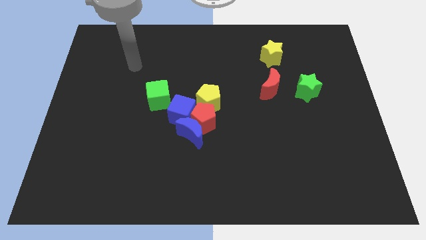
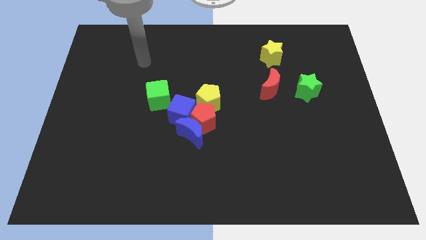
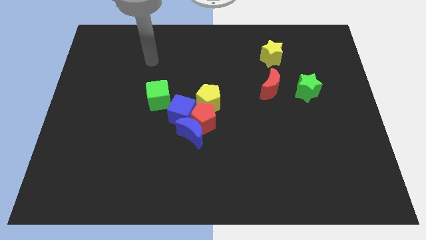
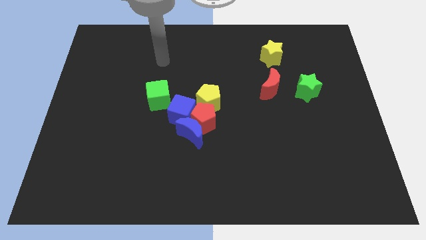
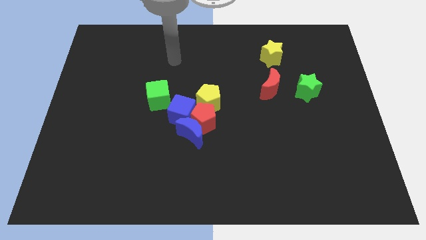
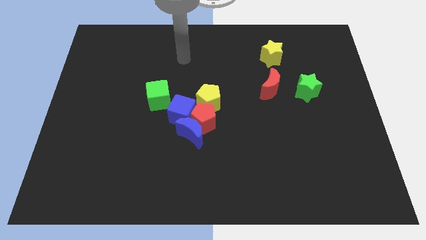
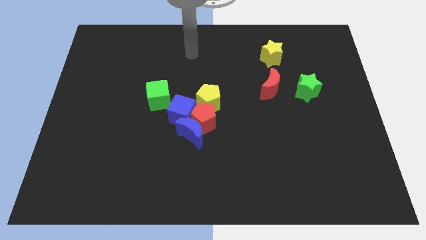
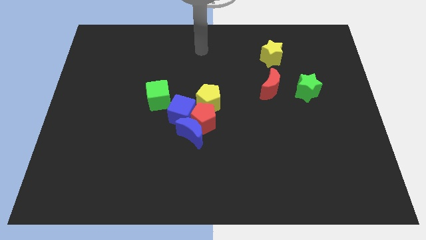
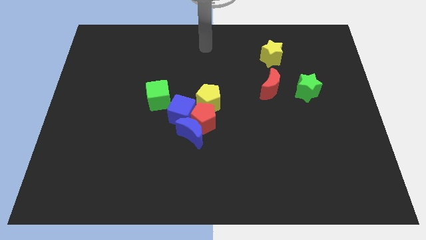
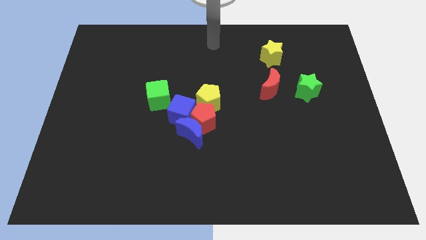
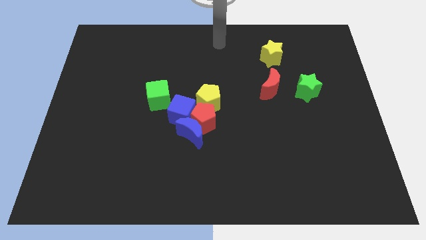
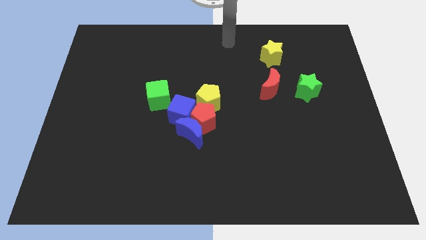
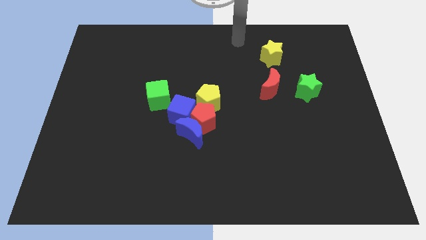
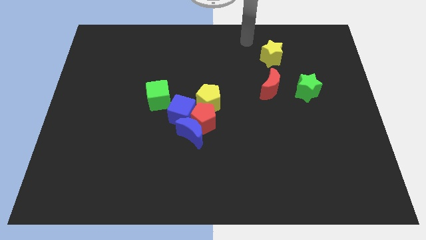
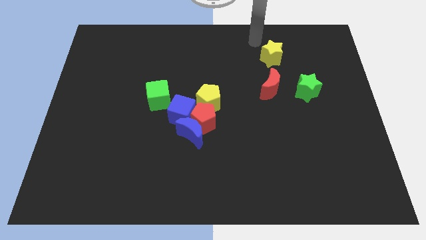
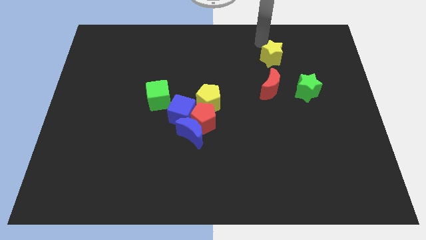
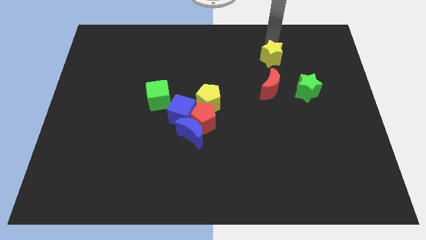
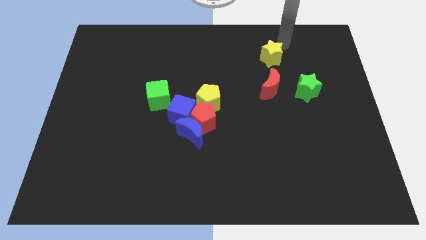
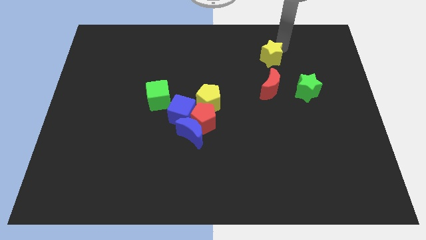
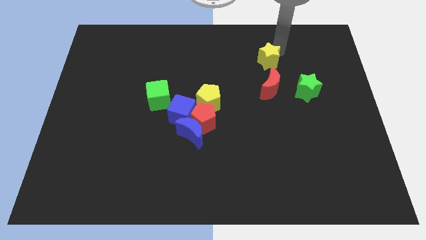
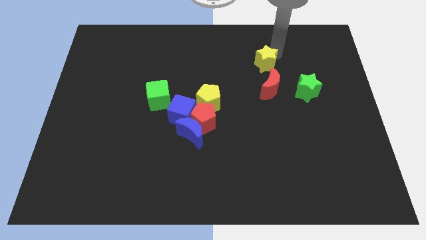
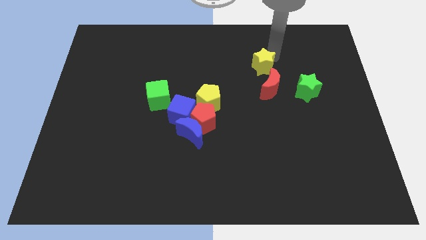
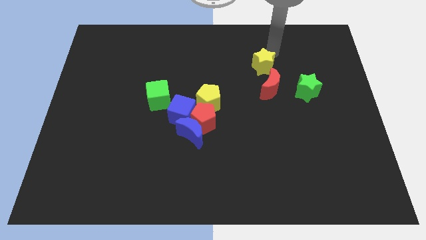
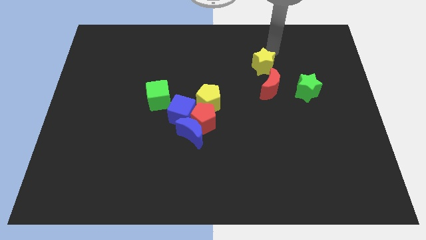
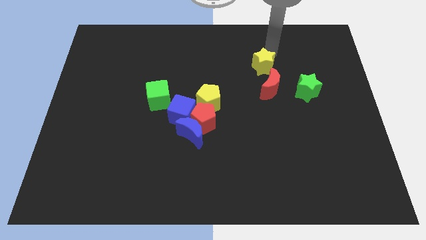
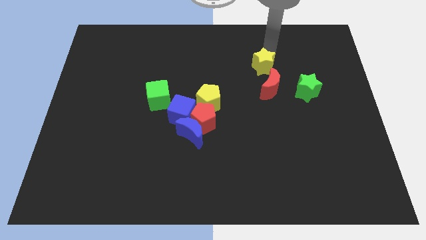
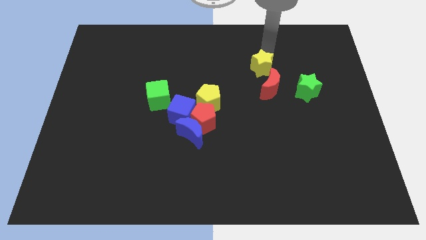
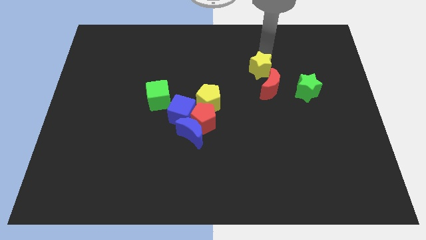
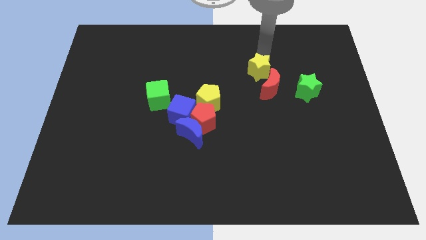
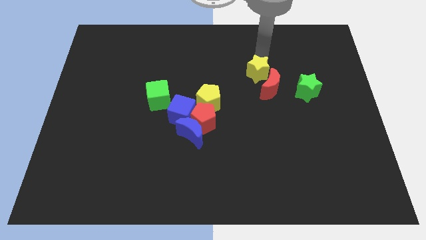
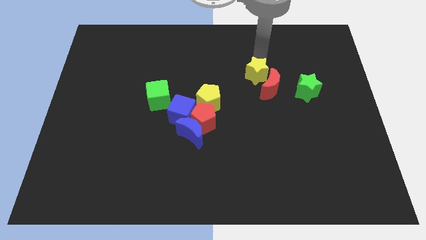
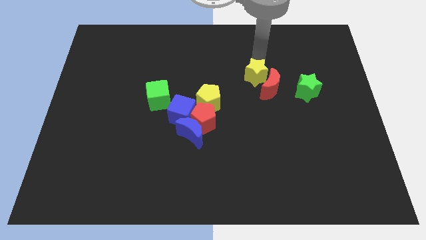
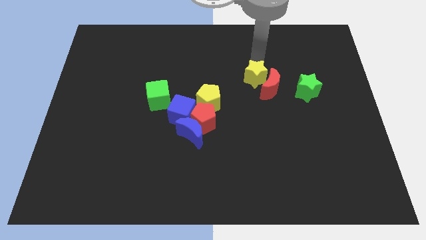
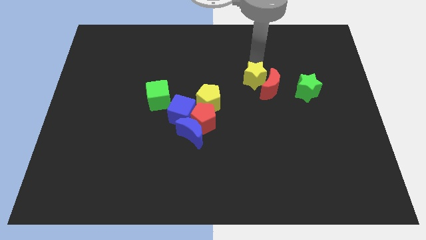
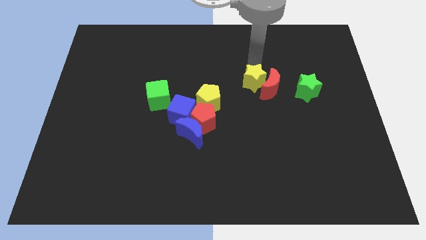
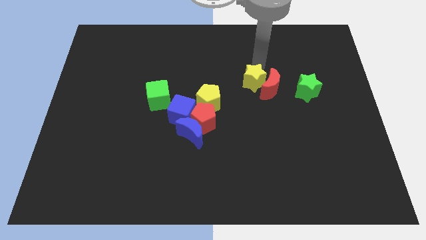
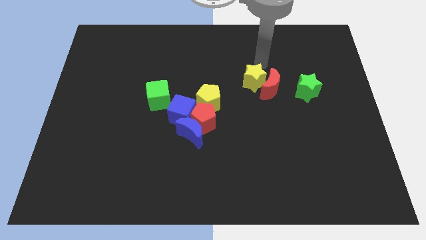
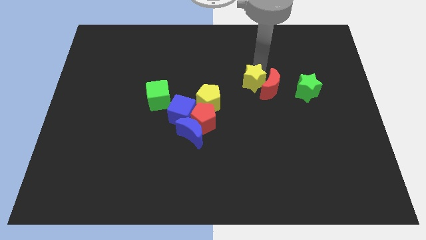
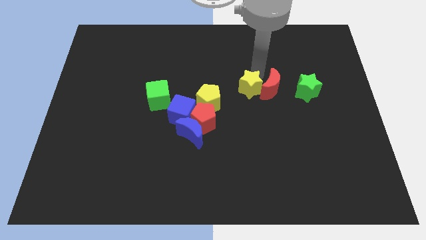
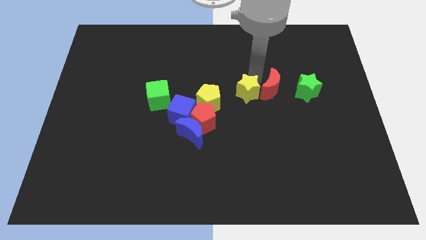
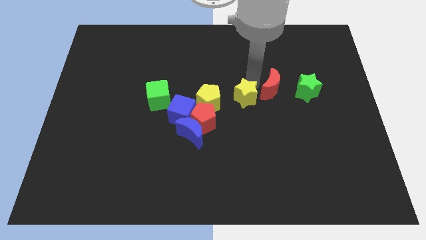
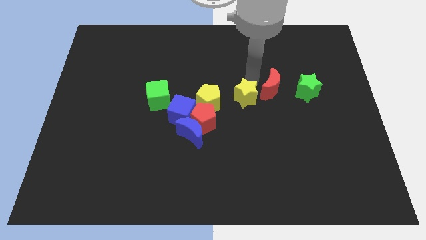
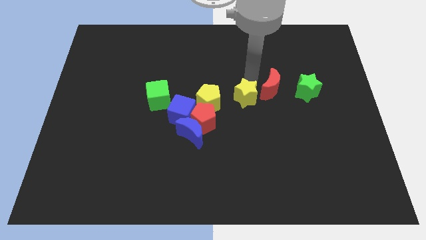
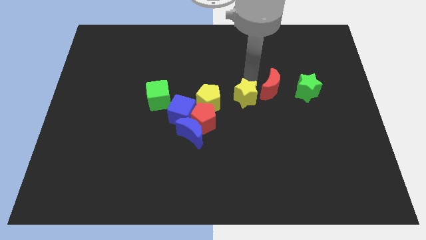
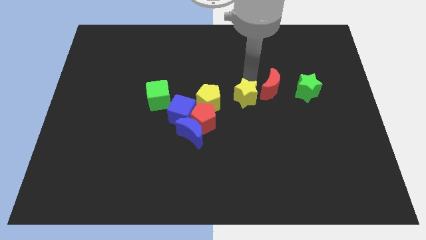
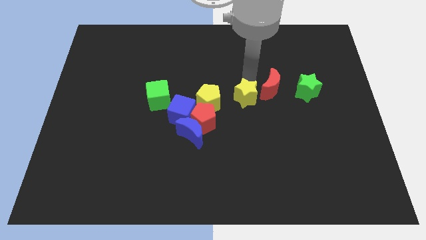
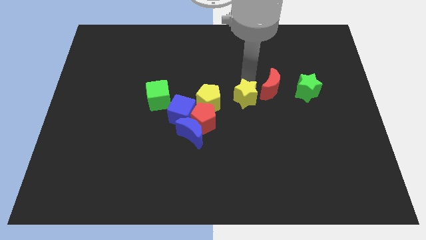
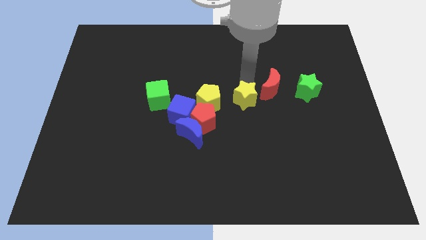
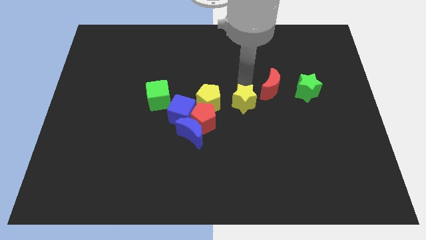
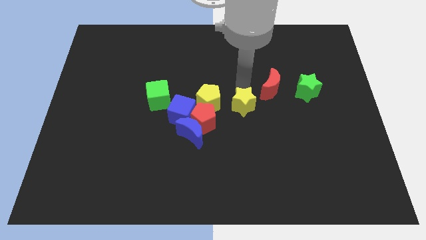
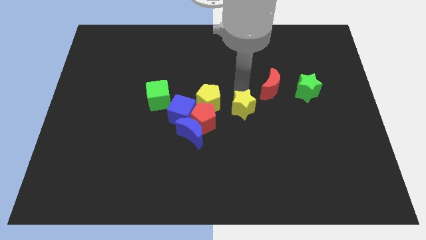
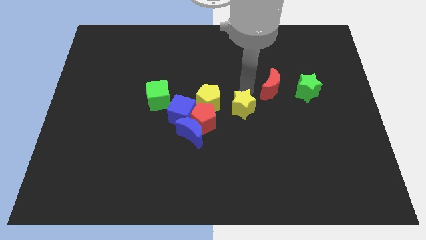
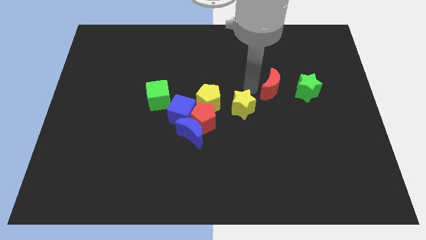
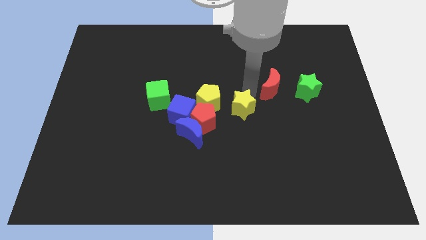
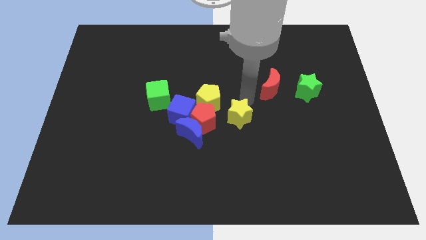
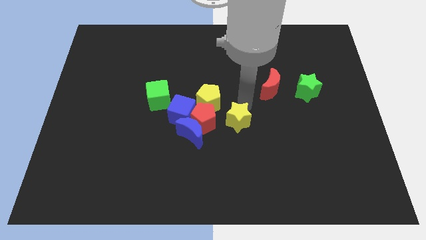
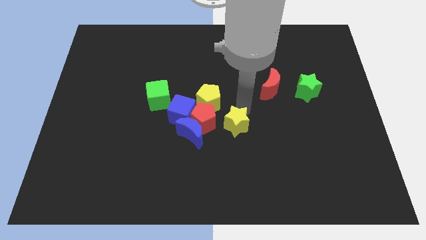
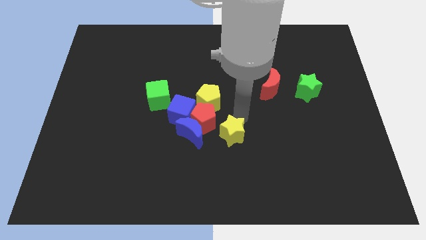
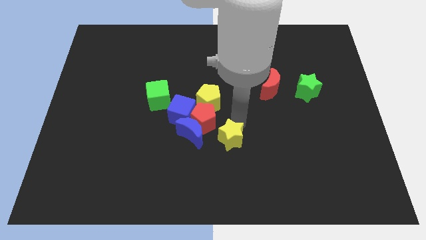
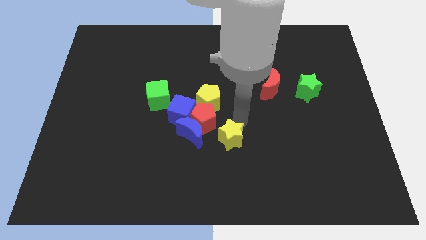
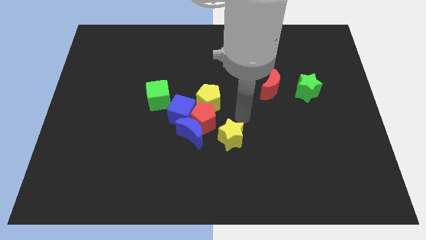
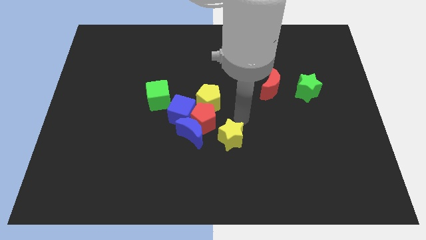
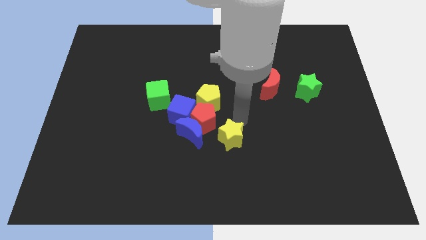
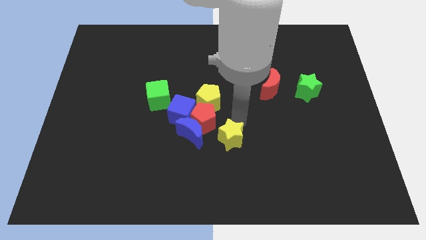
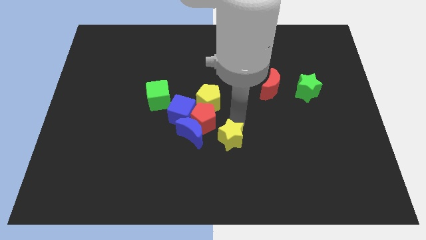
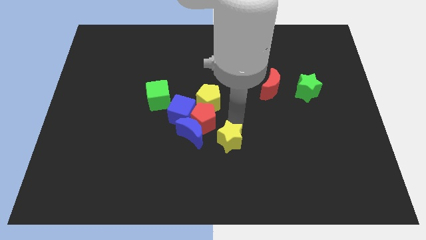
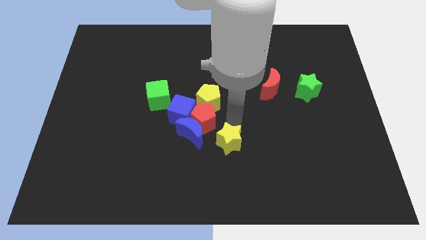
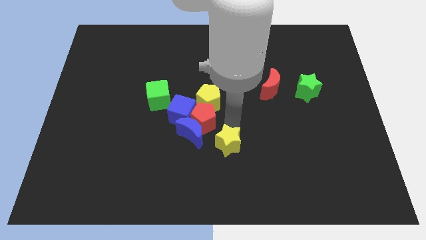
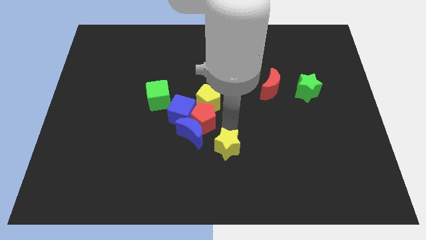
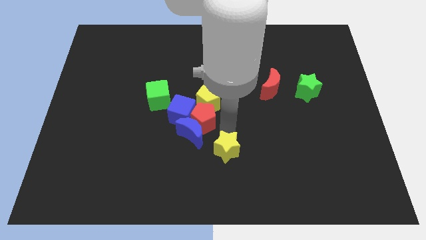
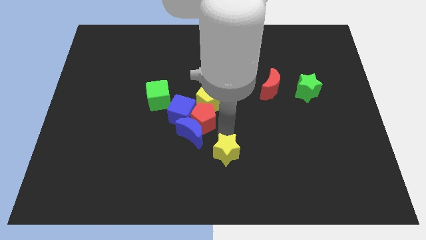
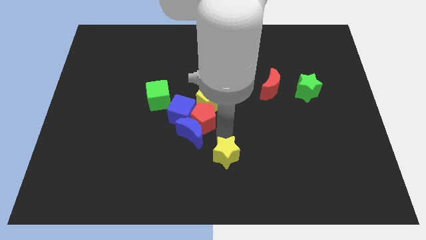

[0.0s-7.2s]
slide the yellow star to the bottom

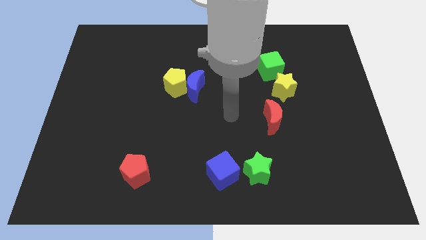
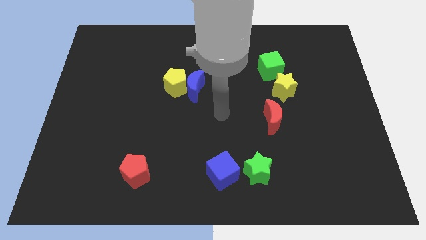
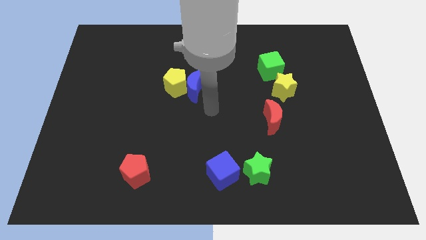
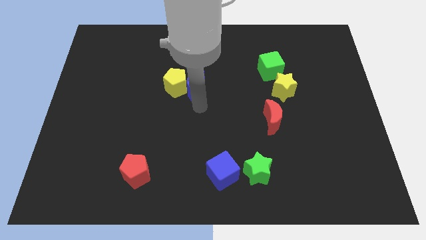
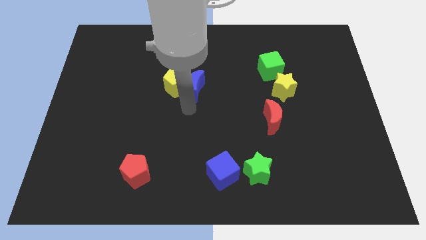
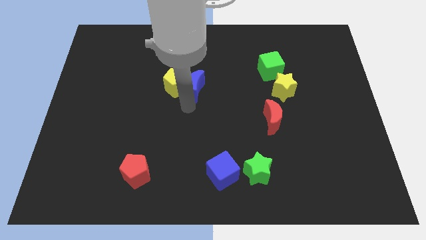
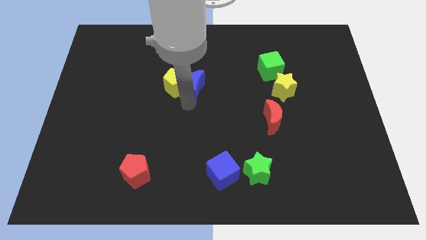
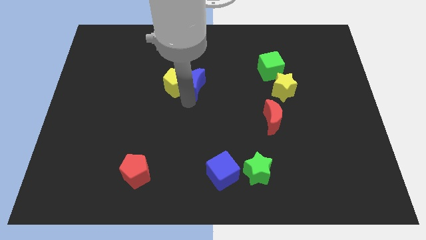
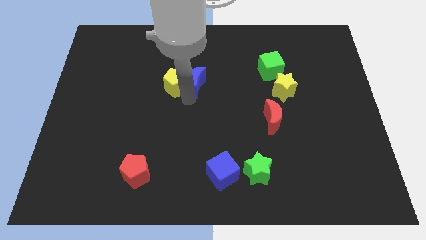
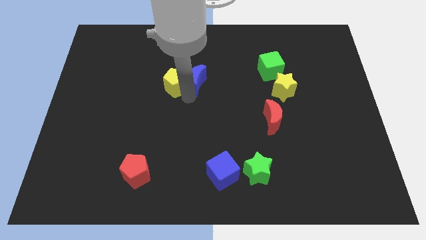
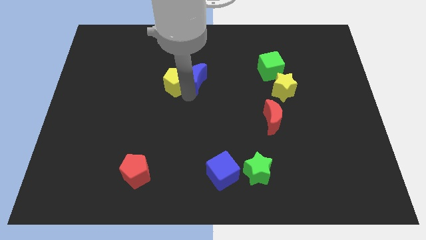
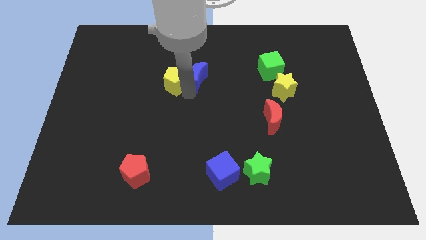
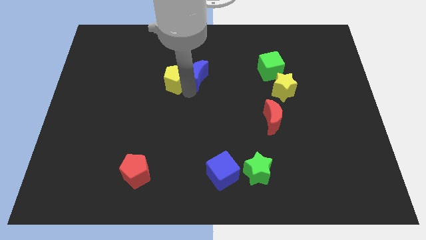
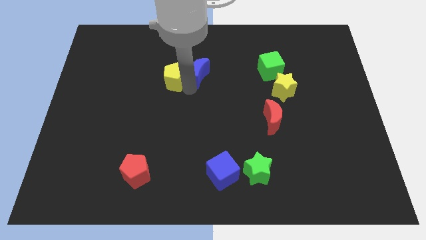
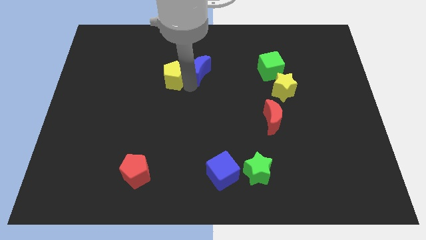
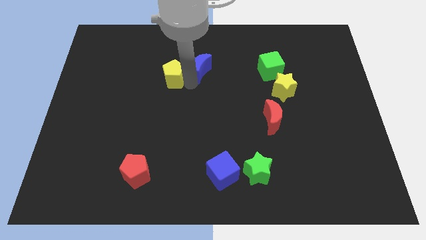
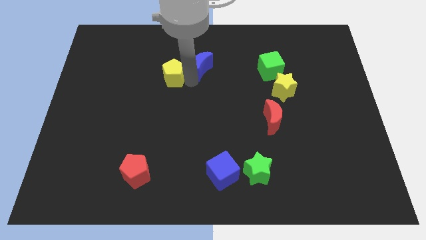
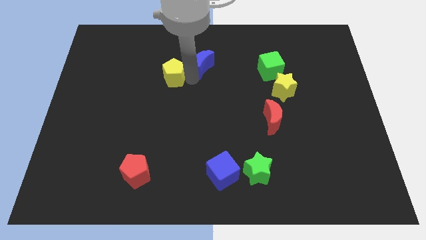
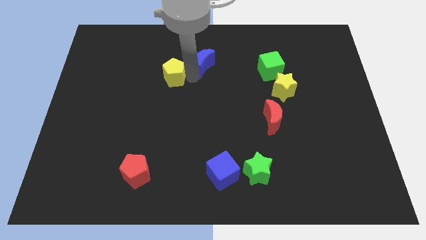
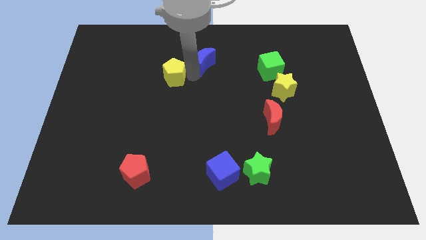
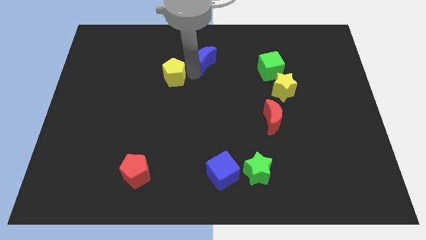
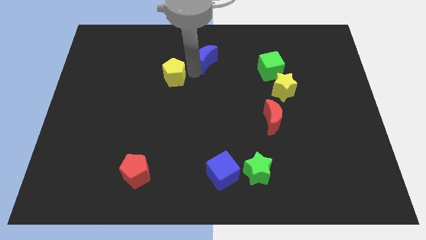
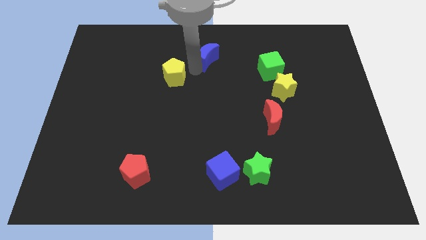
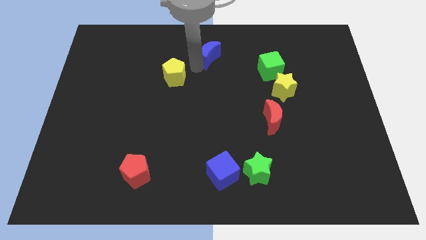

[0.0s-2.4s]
put the blue moon to the towards your base
